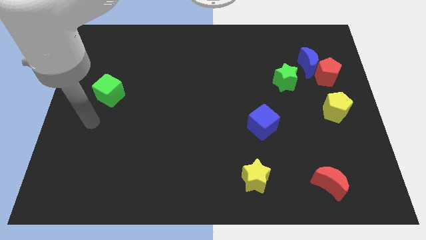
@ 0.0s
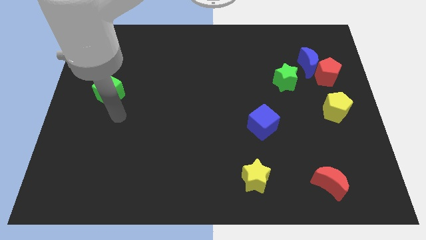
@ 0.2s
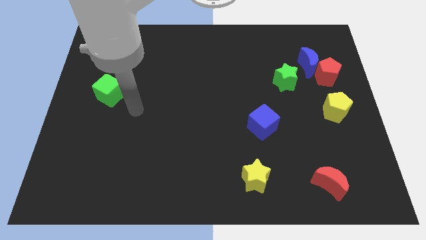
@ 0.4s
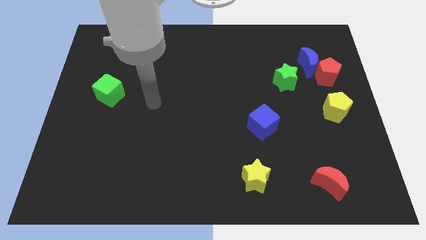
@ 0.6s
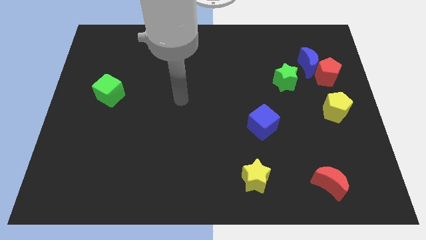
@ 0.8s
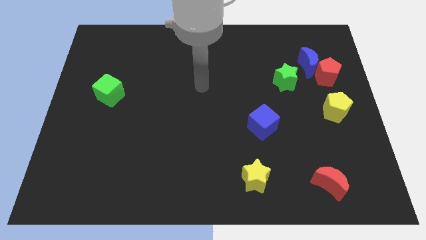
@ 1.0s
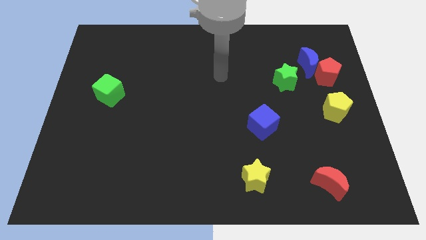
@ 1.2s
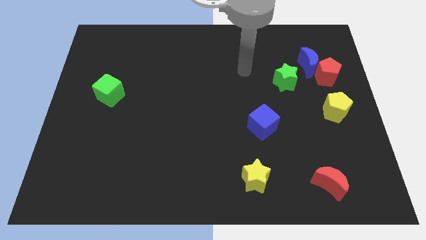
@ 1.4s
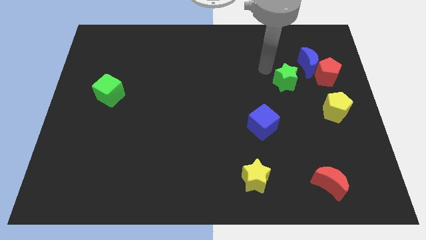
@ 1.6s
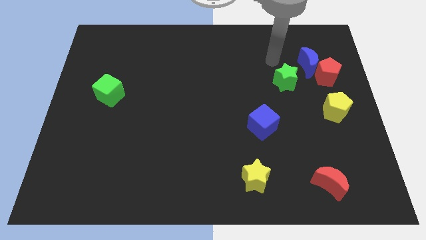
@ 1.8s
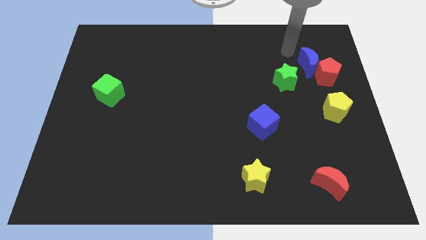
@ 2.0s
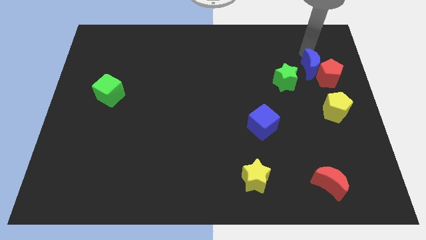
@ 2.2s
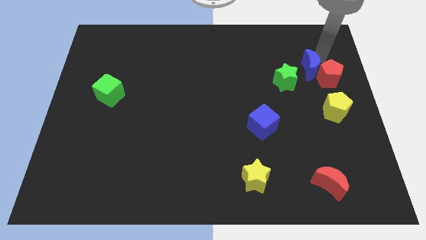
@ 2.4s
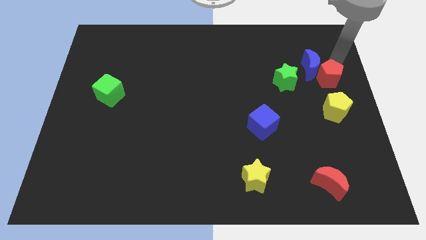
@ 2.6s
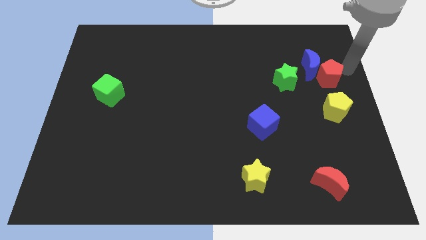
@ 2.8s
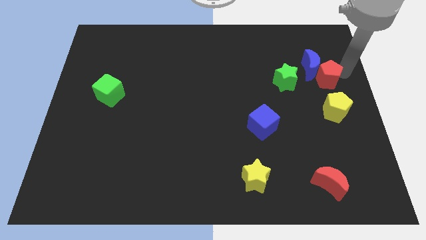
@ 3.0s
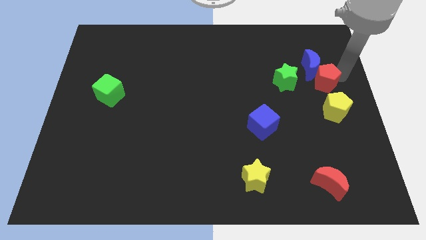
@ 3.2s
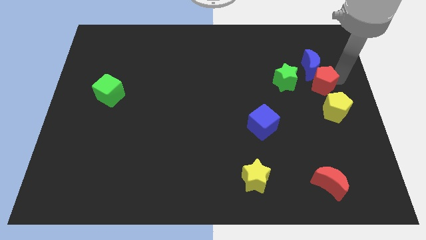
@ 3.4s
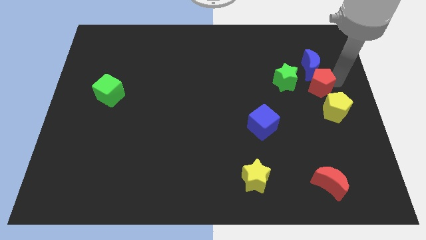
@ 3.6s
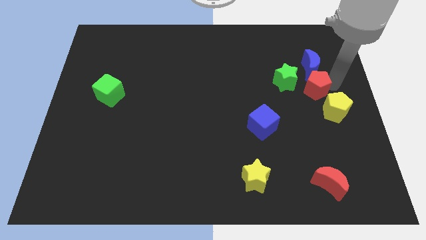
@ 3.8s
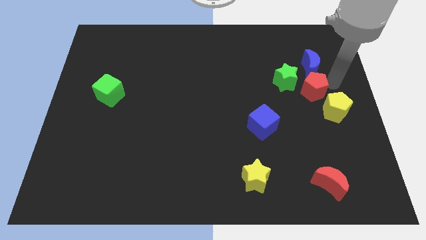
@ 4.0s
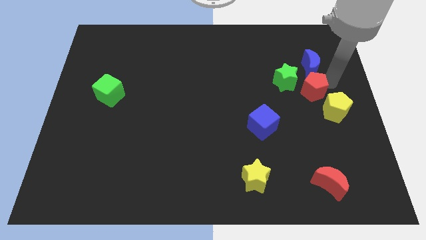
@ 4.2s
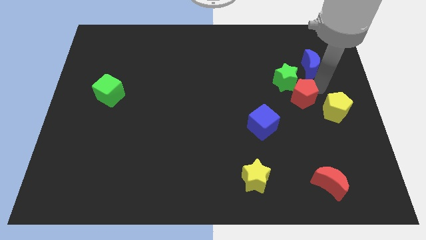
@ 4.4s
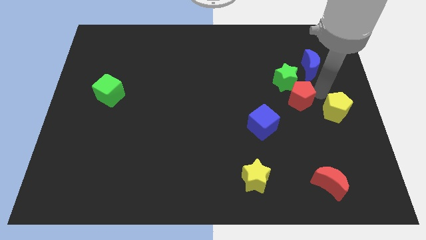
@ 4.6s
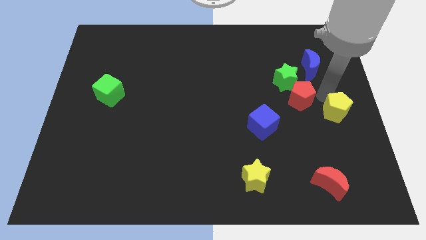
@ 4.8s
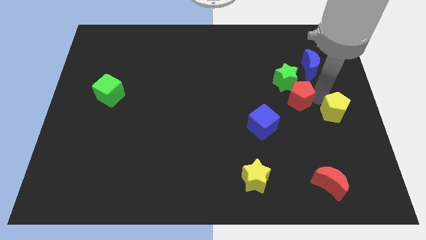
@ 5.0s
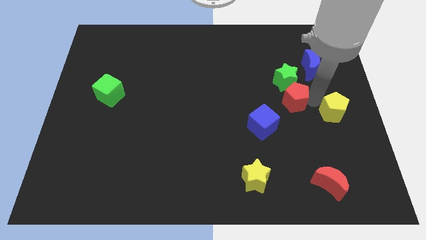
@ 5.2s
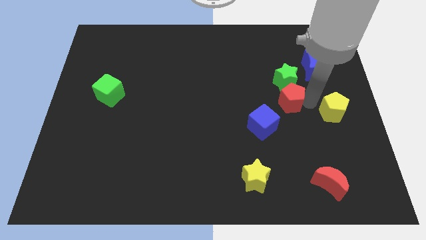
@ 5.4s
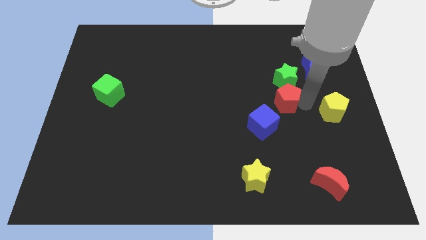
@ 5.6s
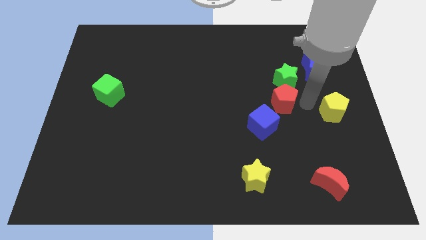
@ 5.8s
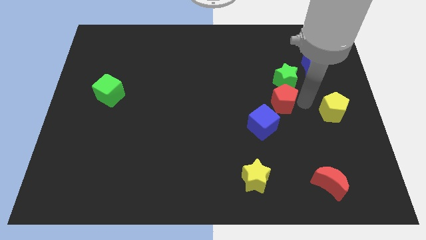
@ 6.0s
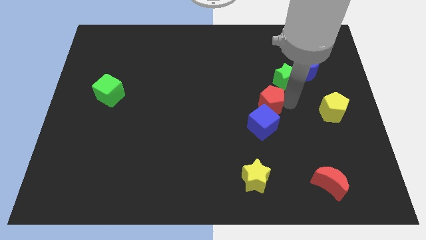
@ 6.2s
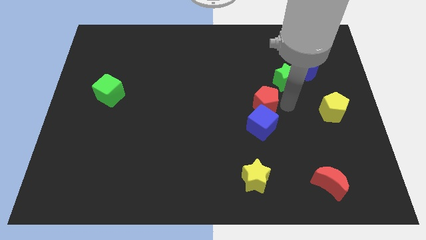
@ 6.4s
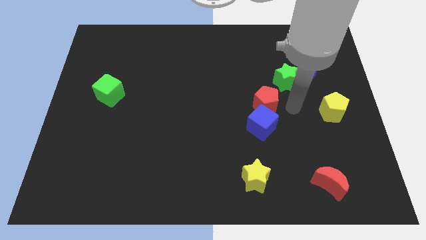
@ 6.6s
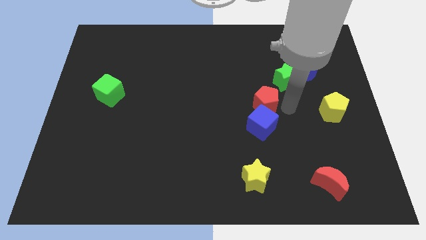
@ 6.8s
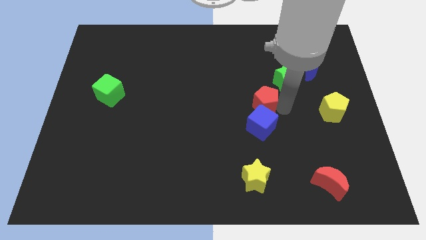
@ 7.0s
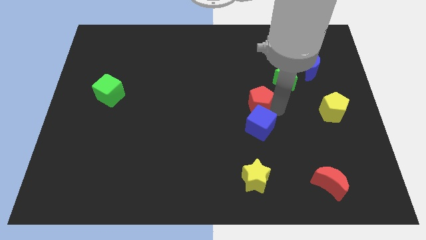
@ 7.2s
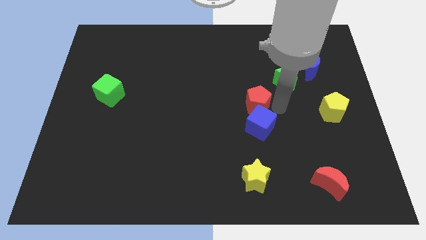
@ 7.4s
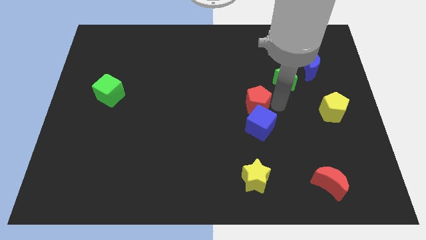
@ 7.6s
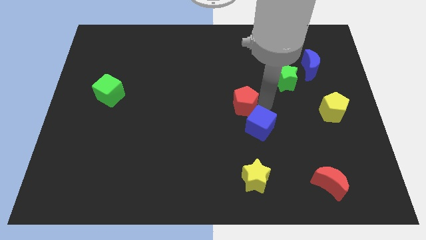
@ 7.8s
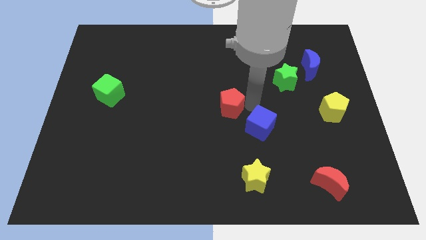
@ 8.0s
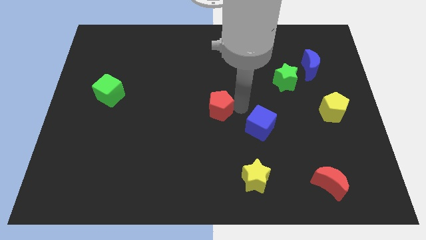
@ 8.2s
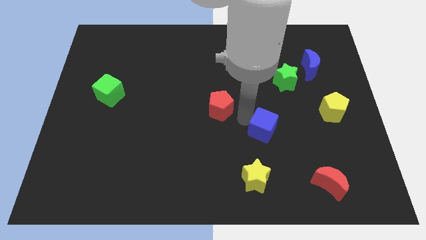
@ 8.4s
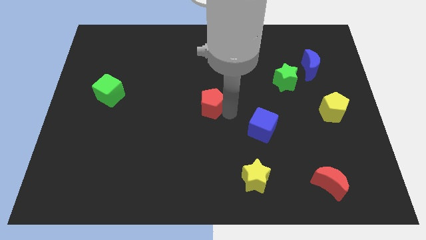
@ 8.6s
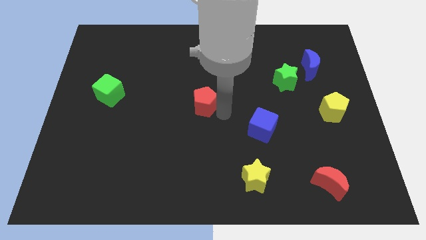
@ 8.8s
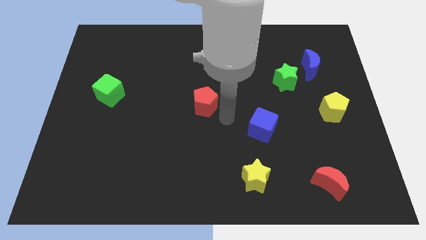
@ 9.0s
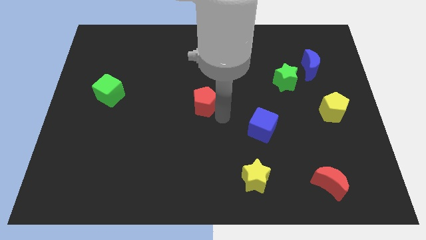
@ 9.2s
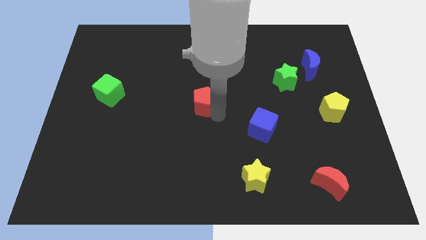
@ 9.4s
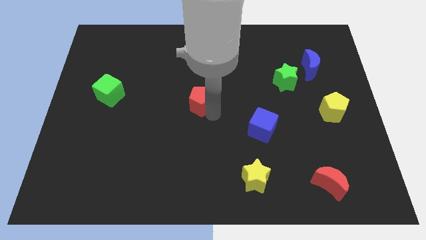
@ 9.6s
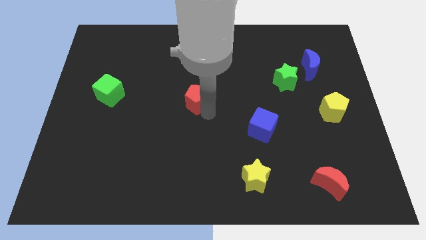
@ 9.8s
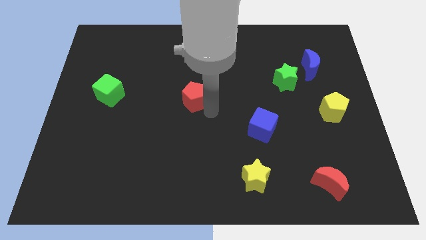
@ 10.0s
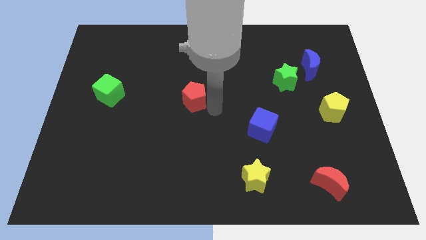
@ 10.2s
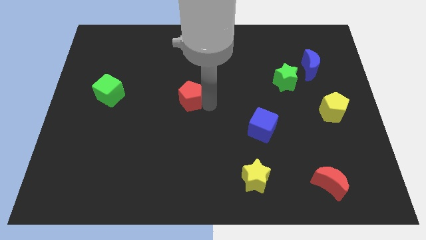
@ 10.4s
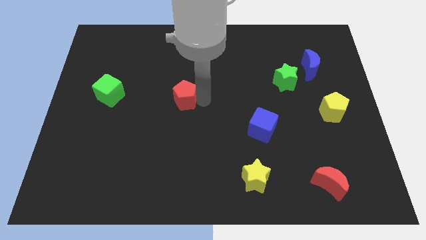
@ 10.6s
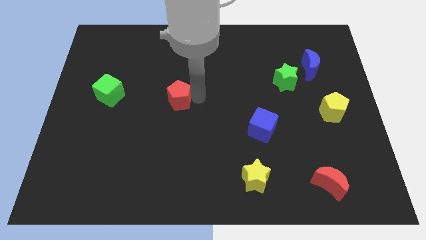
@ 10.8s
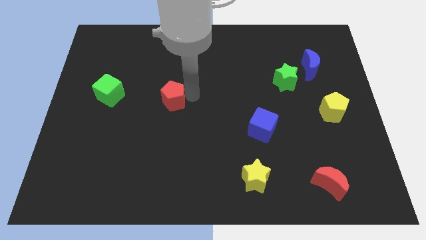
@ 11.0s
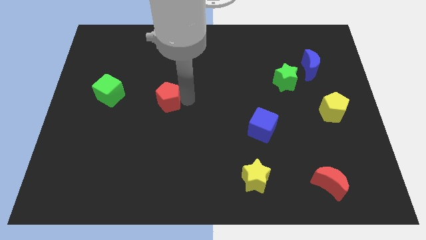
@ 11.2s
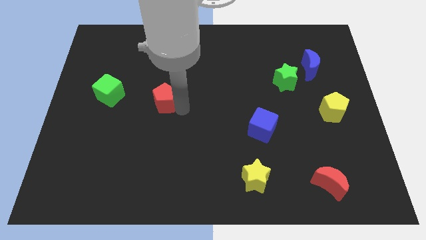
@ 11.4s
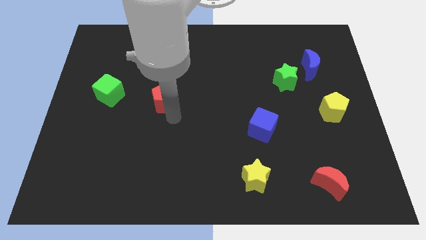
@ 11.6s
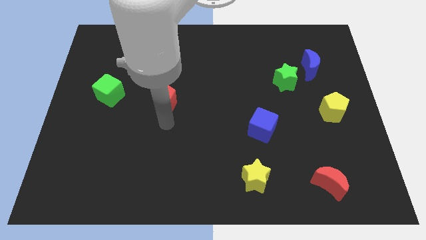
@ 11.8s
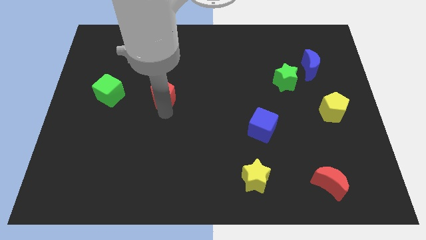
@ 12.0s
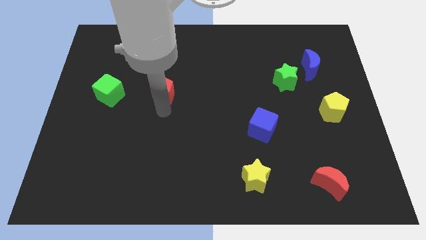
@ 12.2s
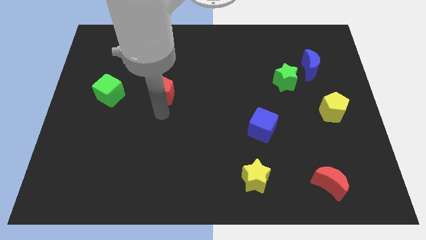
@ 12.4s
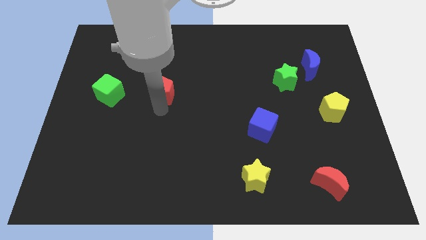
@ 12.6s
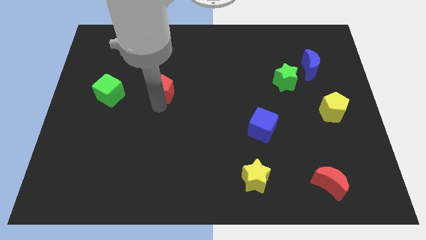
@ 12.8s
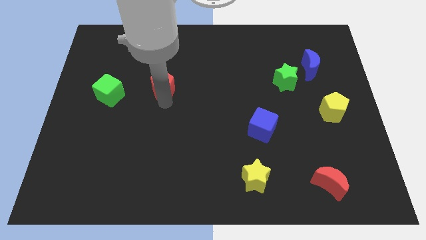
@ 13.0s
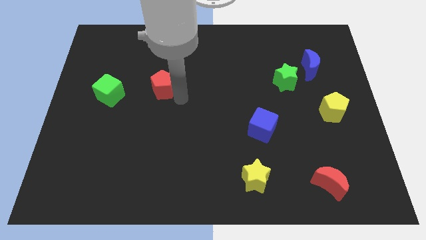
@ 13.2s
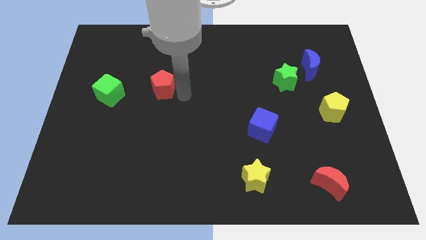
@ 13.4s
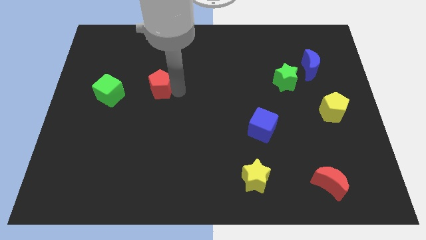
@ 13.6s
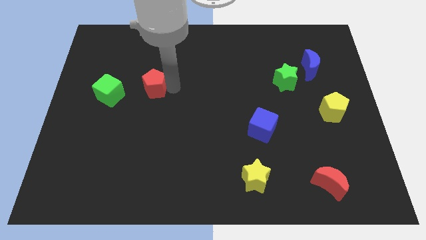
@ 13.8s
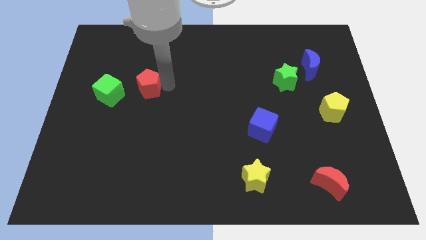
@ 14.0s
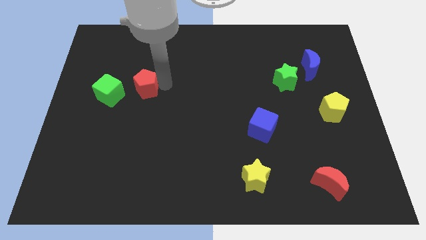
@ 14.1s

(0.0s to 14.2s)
slide the red pentagon to the top right side of the green cube

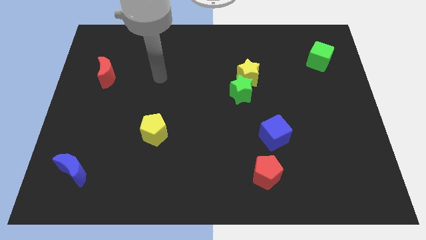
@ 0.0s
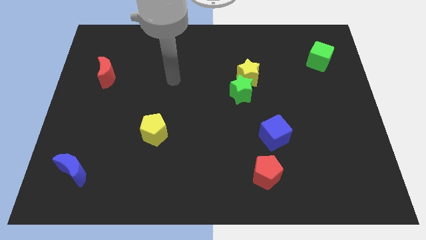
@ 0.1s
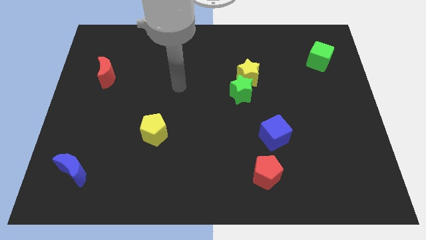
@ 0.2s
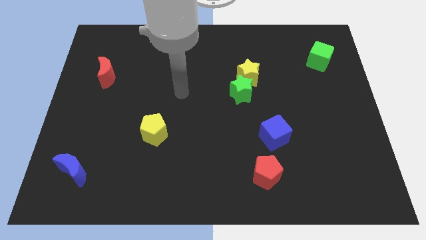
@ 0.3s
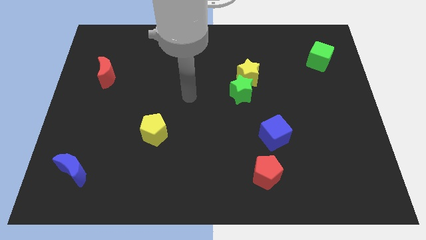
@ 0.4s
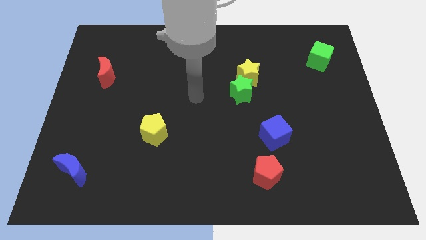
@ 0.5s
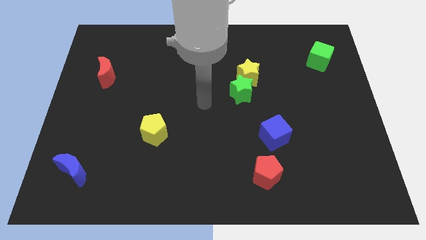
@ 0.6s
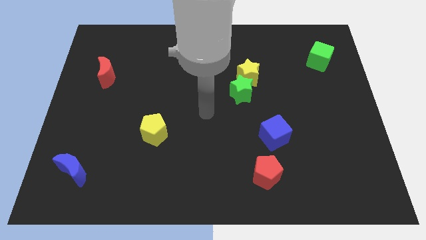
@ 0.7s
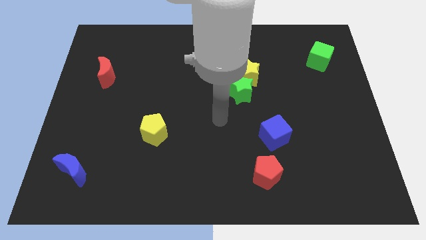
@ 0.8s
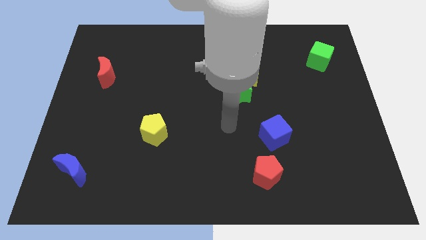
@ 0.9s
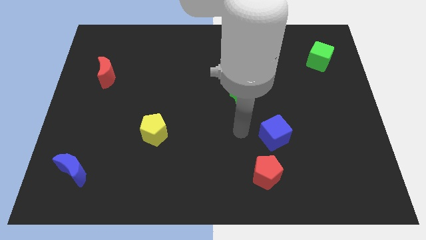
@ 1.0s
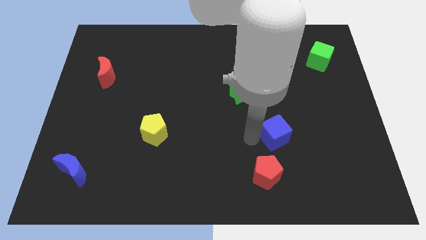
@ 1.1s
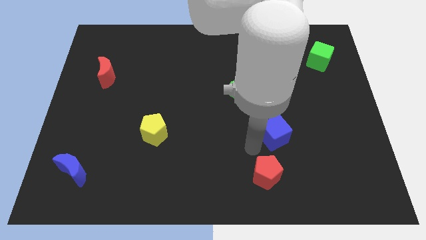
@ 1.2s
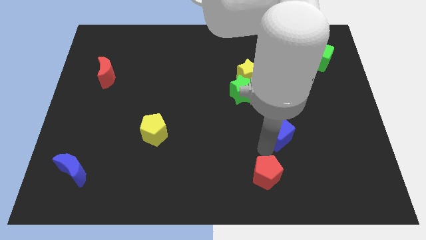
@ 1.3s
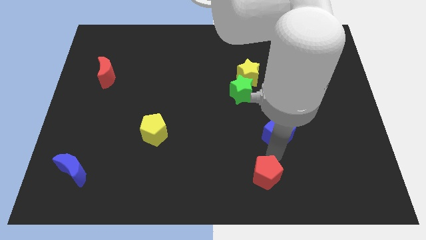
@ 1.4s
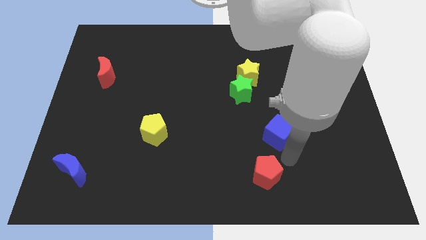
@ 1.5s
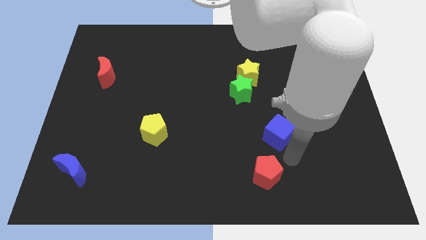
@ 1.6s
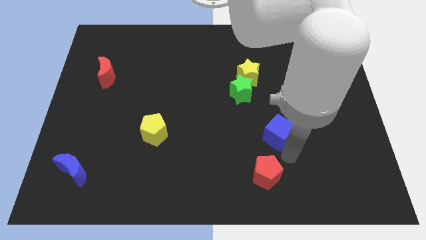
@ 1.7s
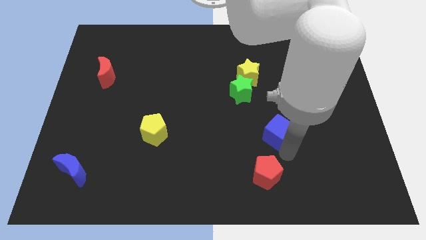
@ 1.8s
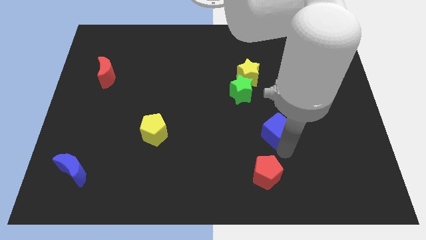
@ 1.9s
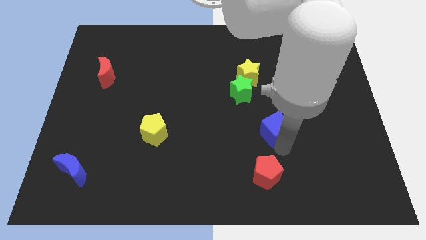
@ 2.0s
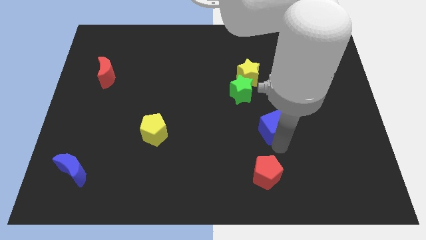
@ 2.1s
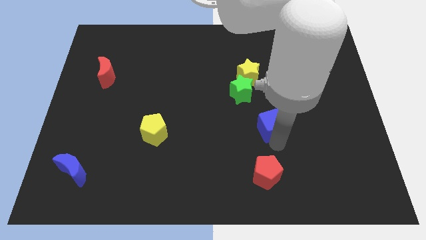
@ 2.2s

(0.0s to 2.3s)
move the blue cube to the bottom right of the green star
